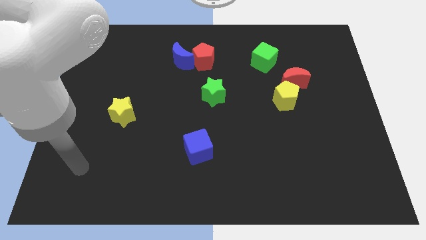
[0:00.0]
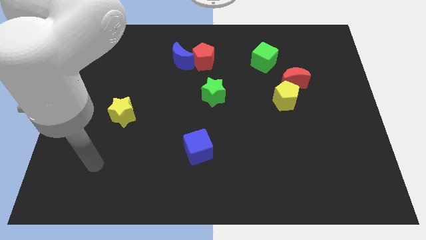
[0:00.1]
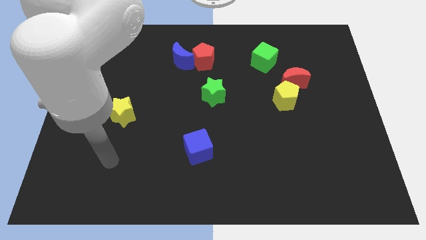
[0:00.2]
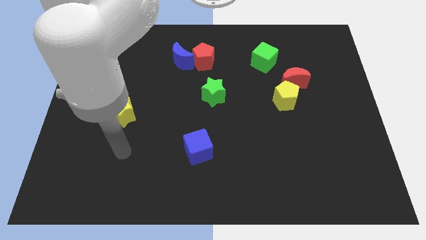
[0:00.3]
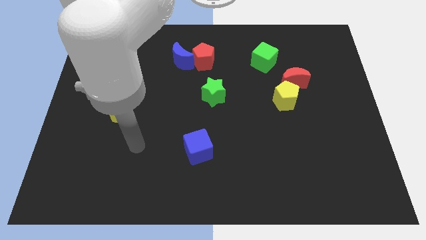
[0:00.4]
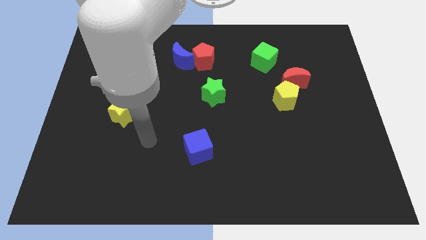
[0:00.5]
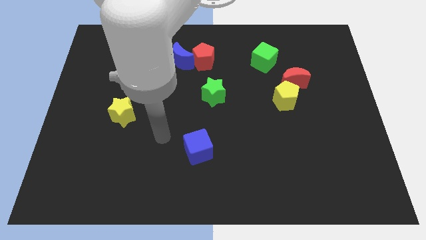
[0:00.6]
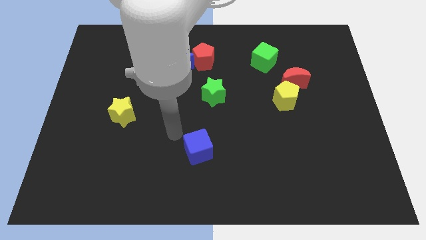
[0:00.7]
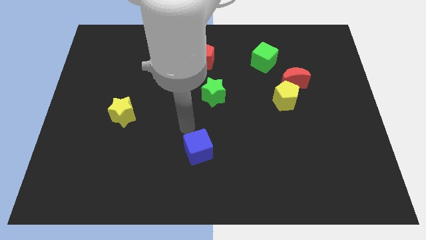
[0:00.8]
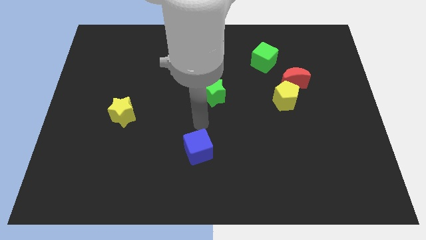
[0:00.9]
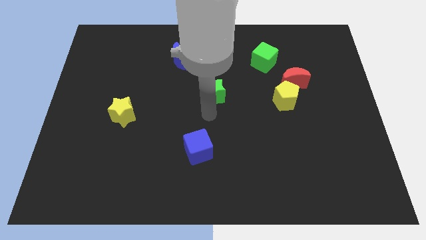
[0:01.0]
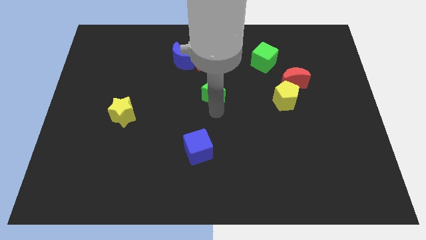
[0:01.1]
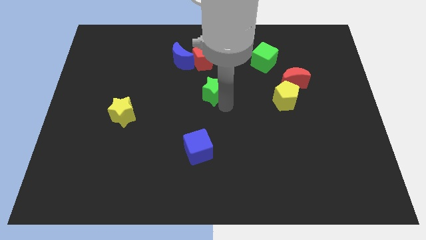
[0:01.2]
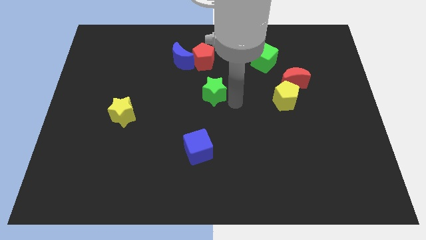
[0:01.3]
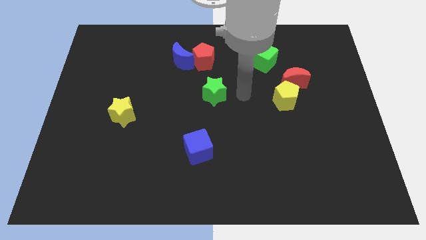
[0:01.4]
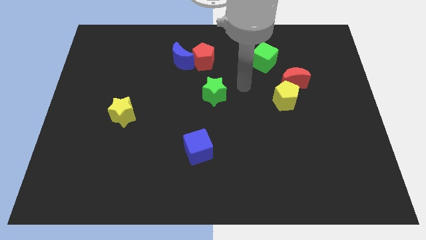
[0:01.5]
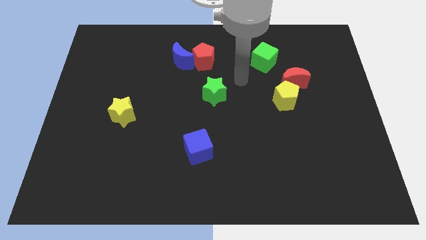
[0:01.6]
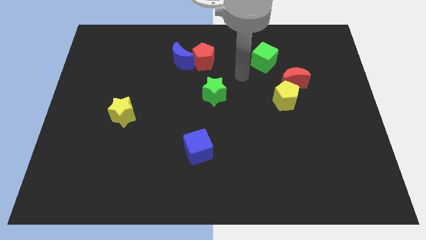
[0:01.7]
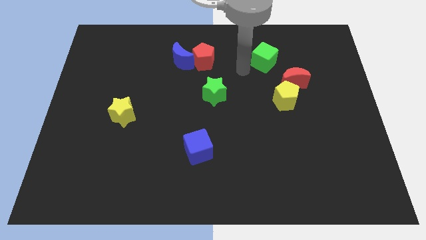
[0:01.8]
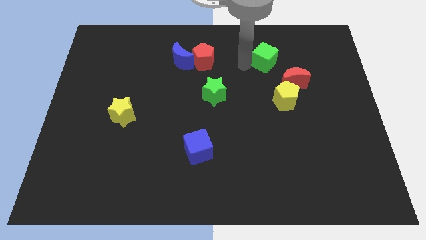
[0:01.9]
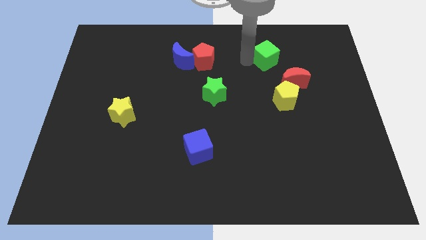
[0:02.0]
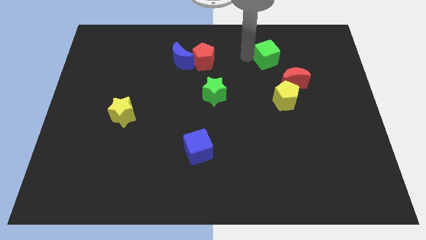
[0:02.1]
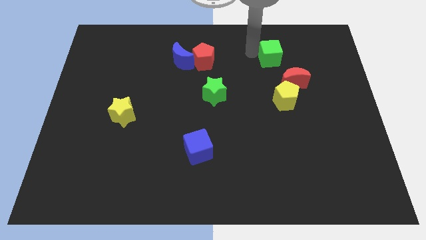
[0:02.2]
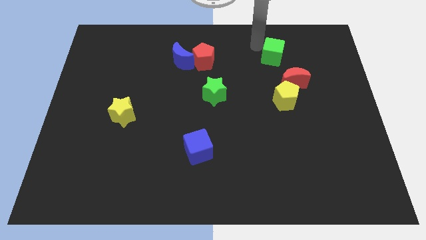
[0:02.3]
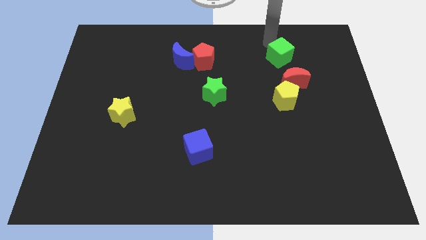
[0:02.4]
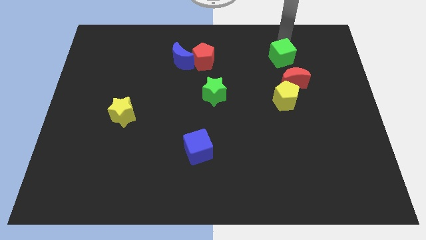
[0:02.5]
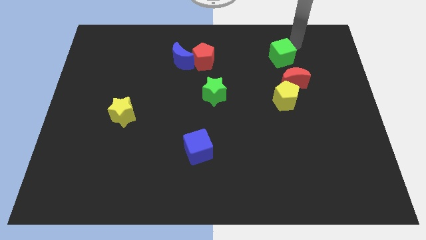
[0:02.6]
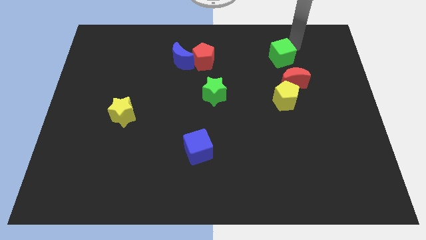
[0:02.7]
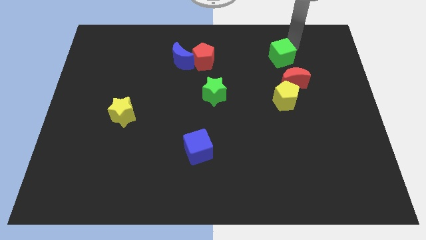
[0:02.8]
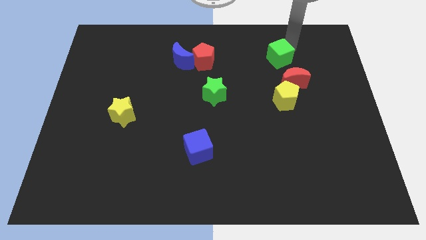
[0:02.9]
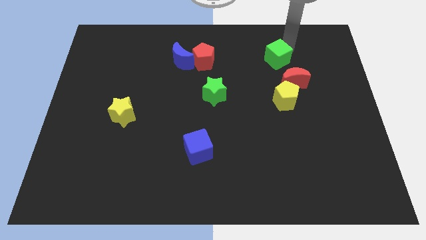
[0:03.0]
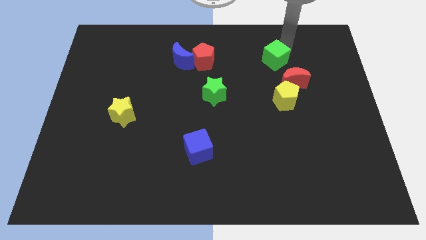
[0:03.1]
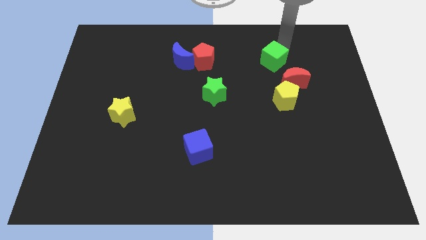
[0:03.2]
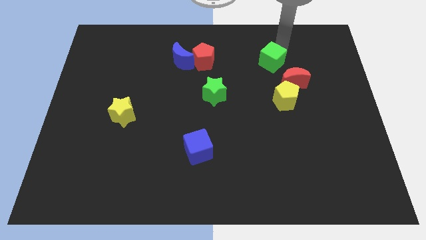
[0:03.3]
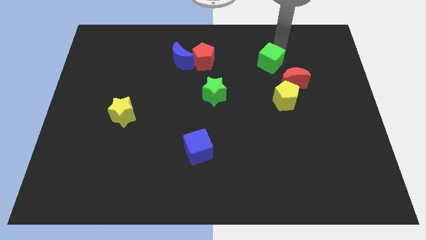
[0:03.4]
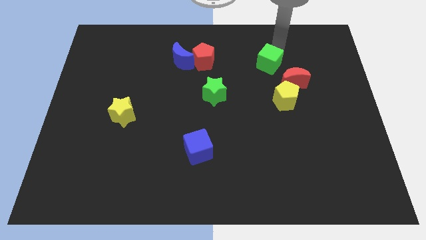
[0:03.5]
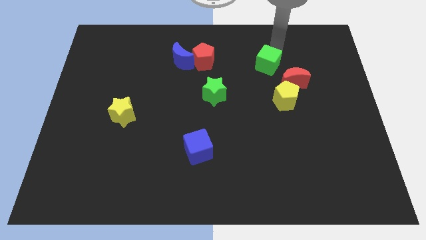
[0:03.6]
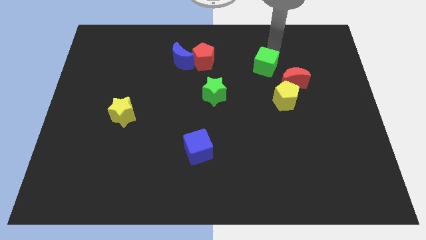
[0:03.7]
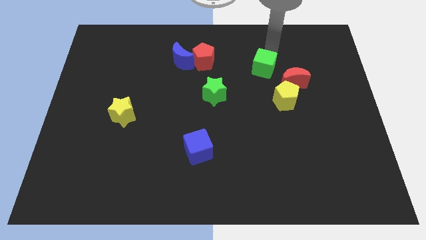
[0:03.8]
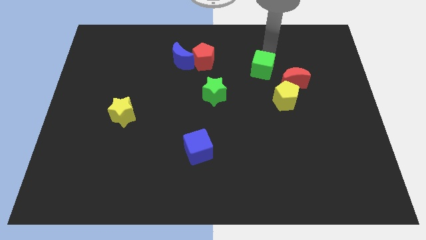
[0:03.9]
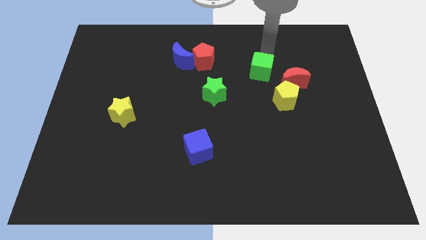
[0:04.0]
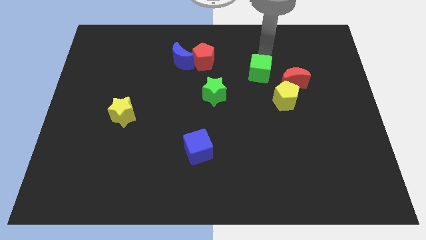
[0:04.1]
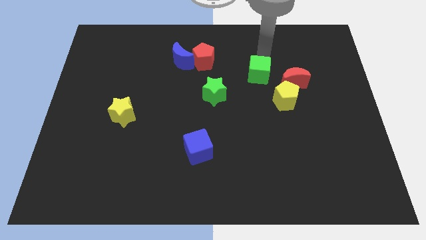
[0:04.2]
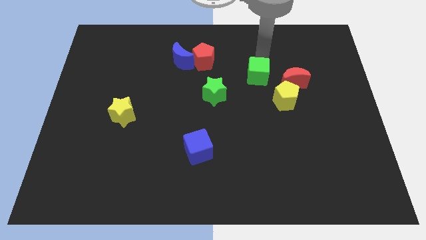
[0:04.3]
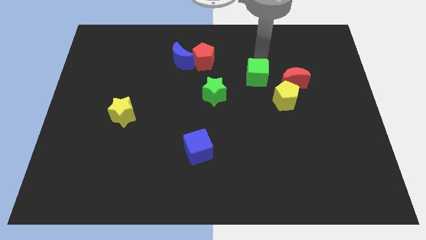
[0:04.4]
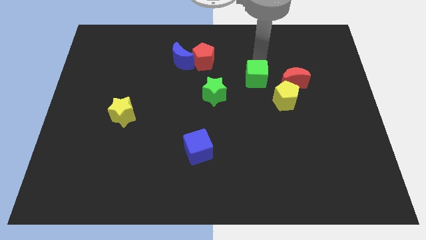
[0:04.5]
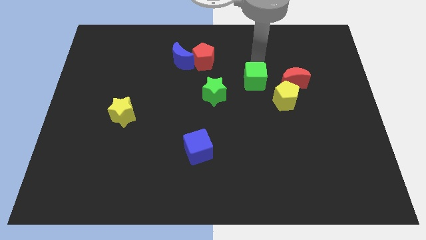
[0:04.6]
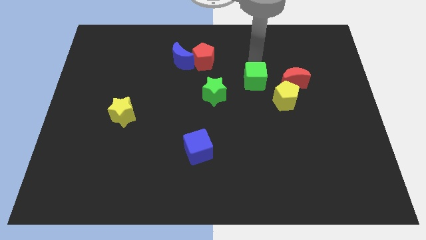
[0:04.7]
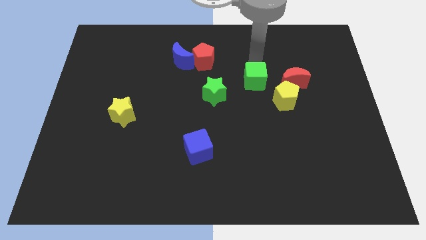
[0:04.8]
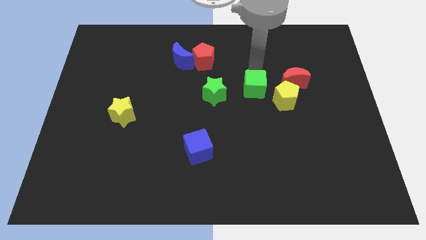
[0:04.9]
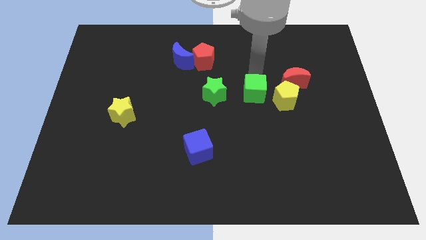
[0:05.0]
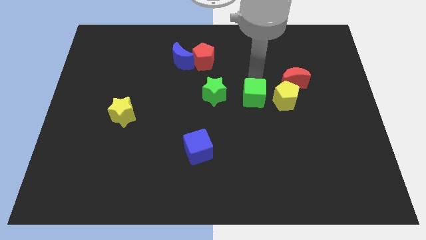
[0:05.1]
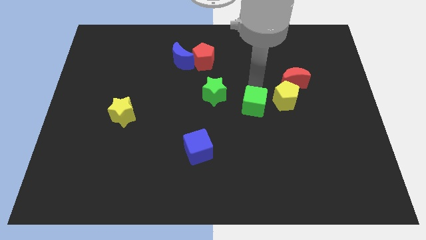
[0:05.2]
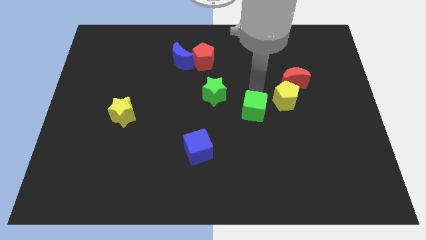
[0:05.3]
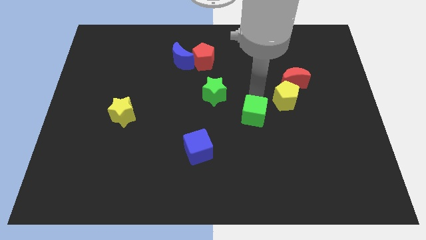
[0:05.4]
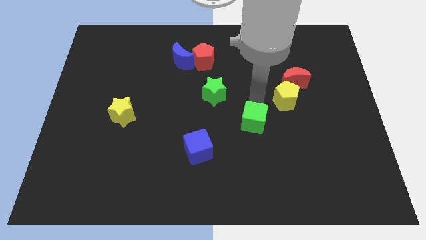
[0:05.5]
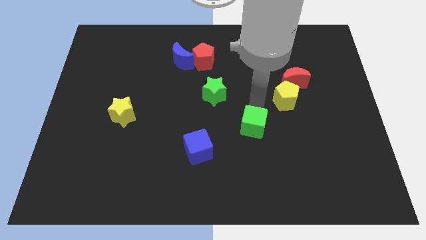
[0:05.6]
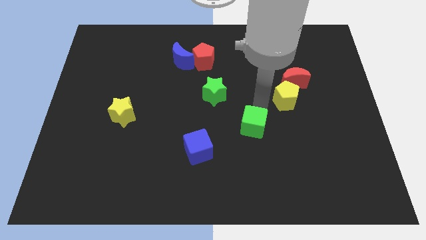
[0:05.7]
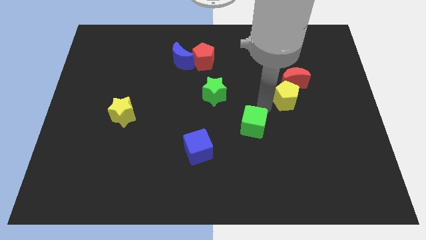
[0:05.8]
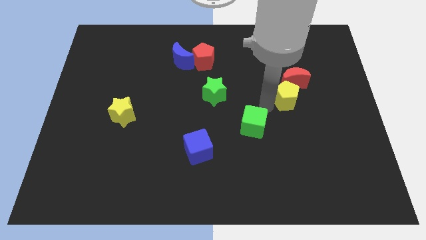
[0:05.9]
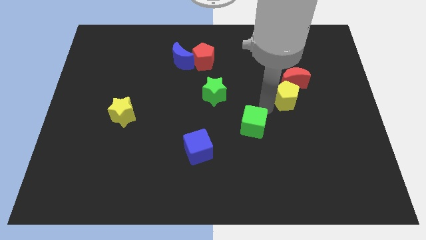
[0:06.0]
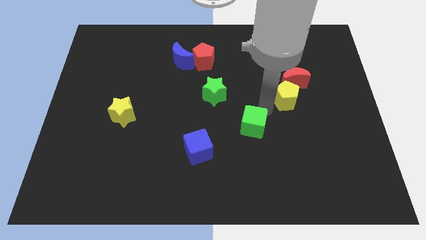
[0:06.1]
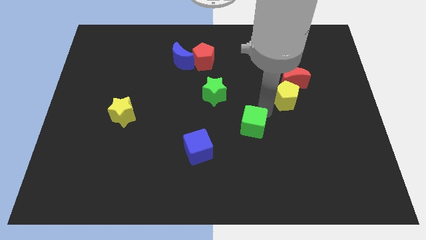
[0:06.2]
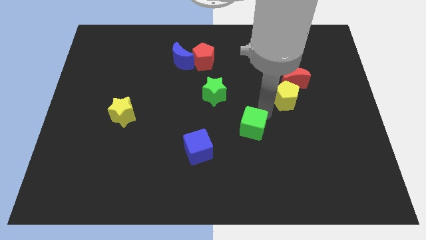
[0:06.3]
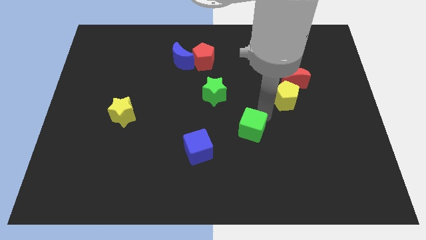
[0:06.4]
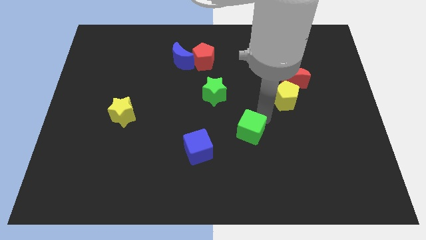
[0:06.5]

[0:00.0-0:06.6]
put the green cube right of the blue cube

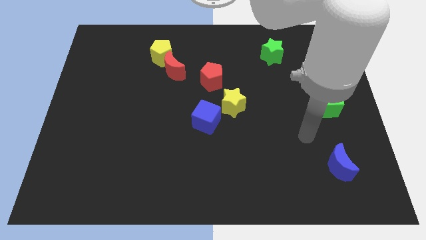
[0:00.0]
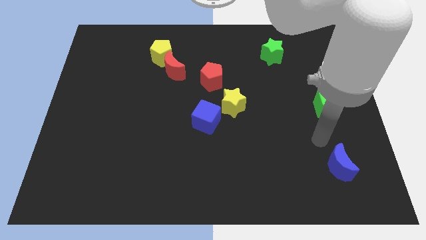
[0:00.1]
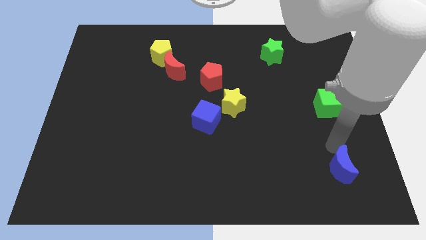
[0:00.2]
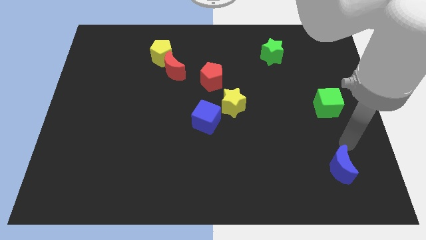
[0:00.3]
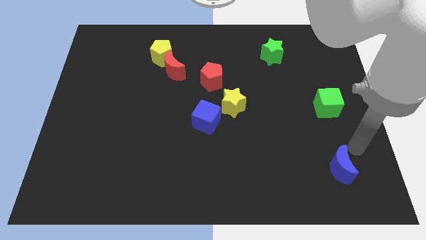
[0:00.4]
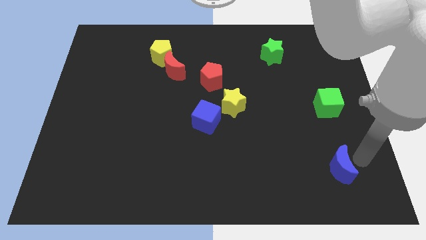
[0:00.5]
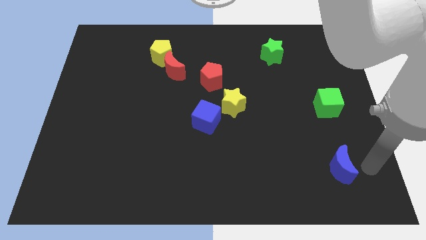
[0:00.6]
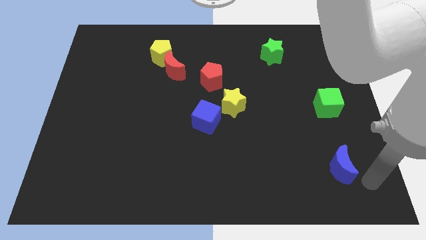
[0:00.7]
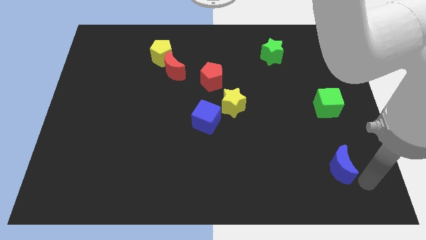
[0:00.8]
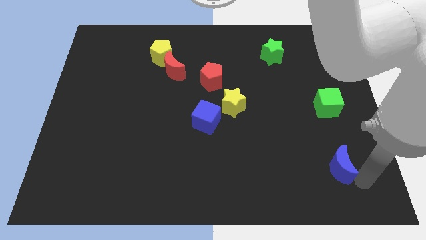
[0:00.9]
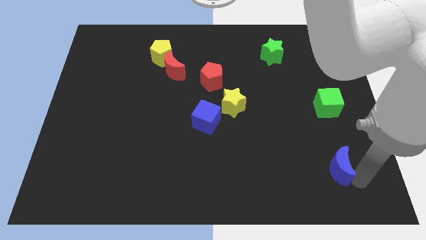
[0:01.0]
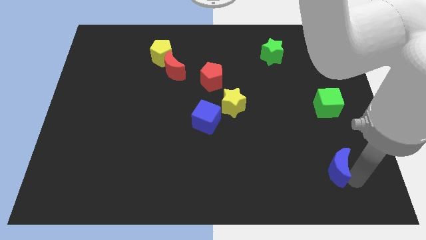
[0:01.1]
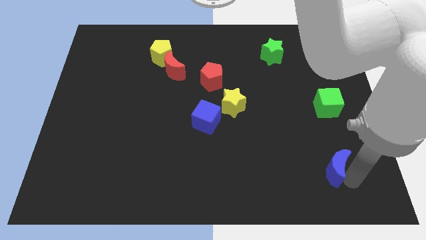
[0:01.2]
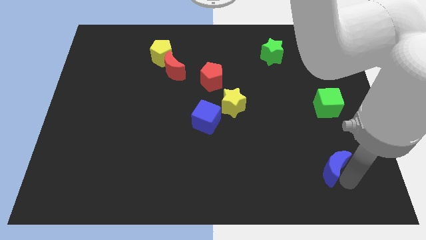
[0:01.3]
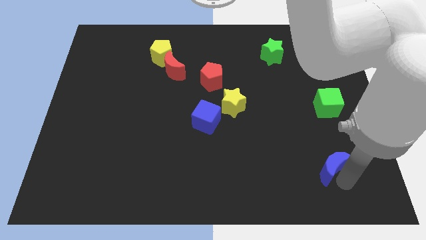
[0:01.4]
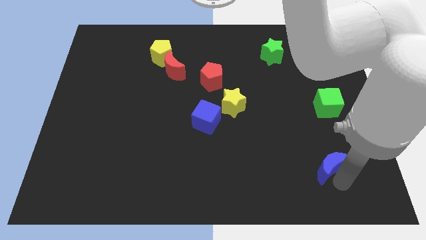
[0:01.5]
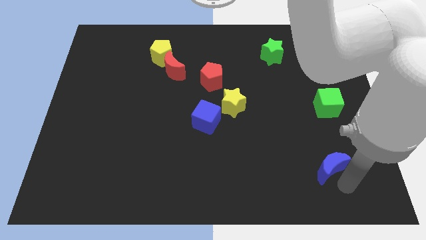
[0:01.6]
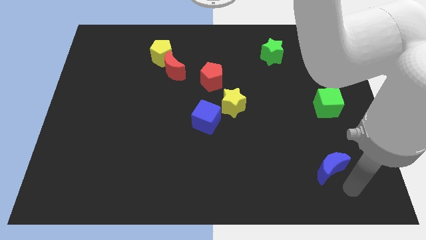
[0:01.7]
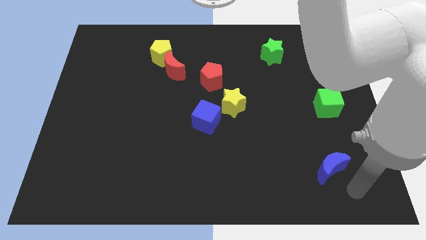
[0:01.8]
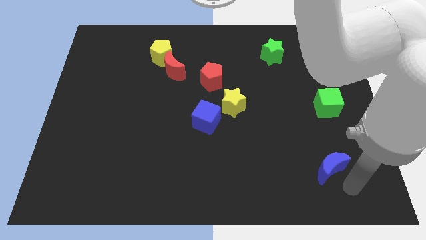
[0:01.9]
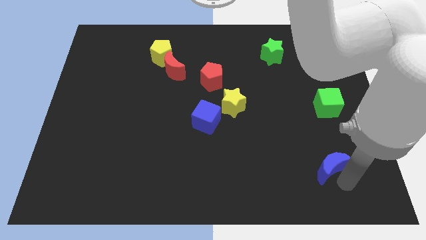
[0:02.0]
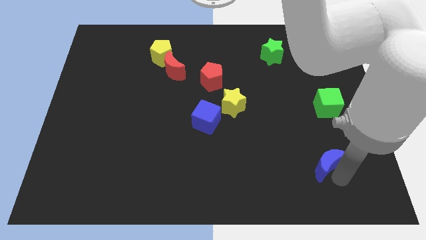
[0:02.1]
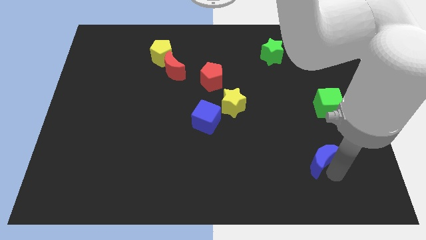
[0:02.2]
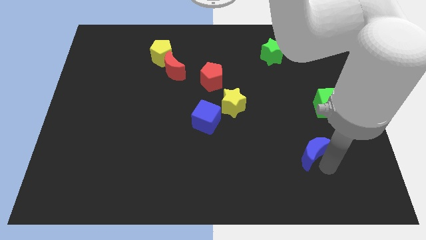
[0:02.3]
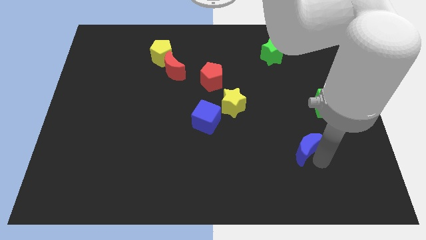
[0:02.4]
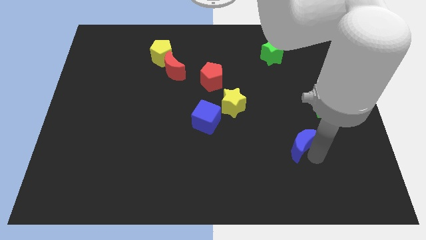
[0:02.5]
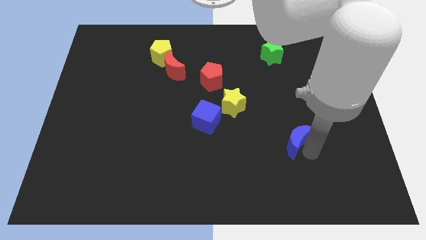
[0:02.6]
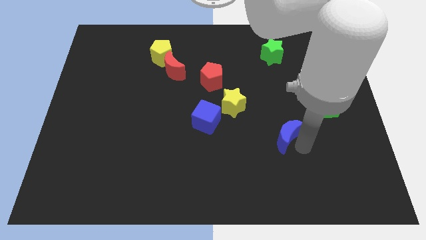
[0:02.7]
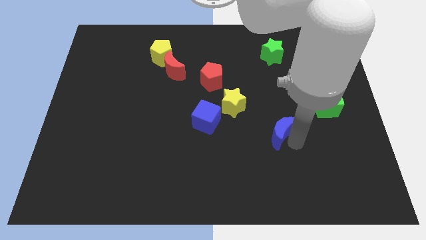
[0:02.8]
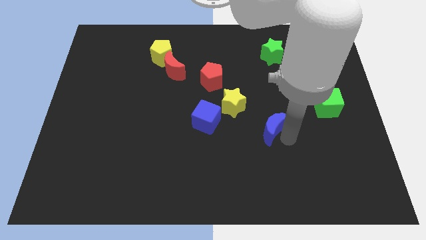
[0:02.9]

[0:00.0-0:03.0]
push the blue moon to the bottom right of the yellow star
